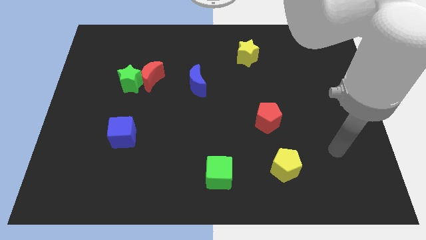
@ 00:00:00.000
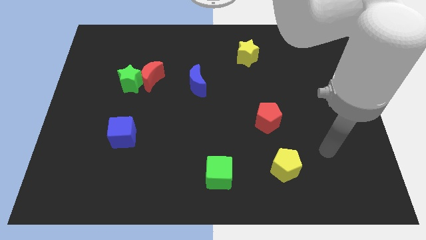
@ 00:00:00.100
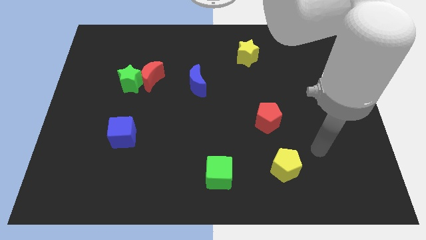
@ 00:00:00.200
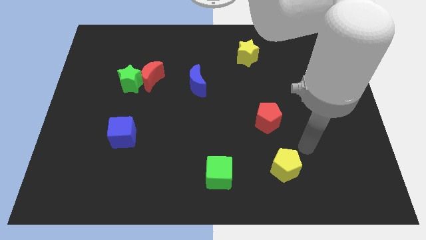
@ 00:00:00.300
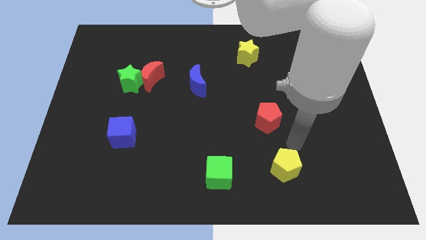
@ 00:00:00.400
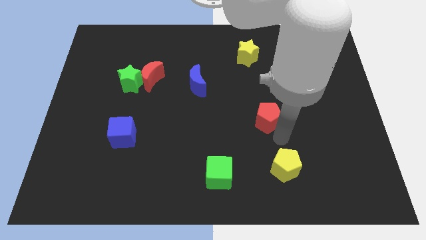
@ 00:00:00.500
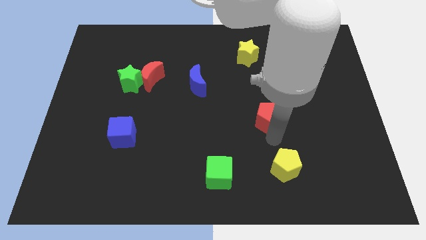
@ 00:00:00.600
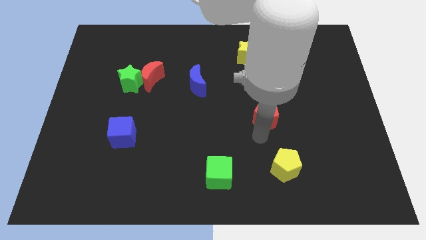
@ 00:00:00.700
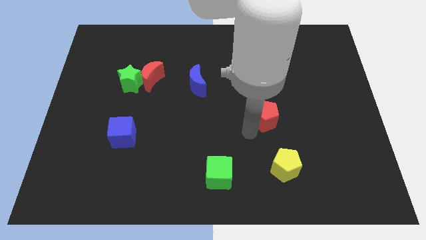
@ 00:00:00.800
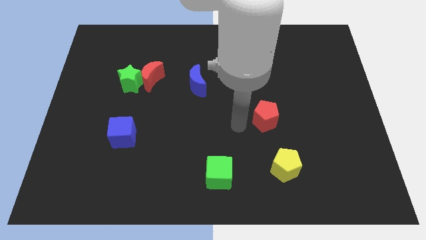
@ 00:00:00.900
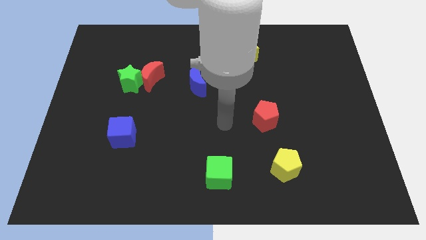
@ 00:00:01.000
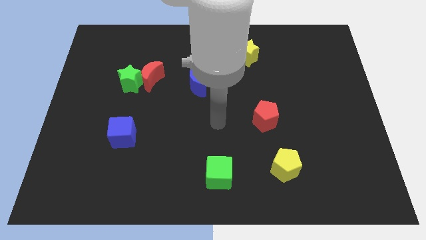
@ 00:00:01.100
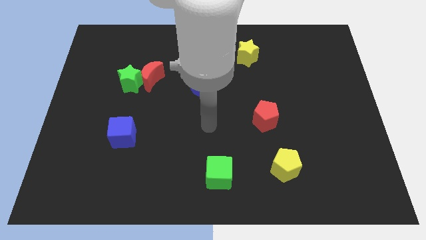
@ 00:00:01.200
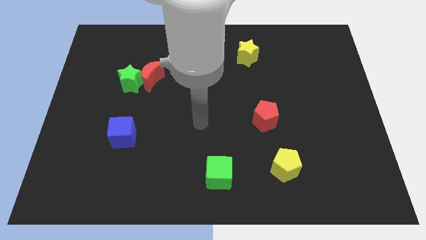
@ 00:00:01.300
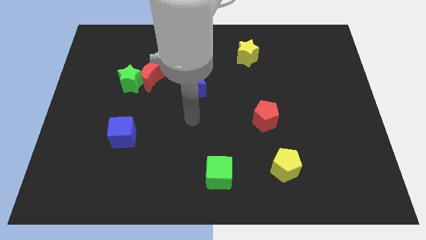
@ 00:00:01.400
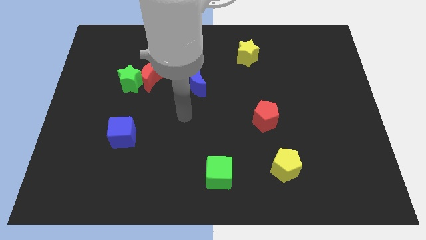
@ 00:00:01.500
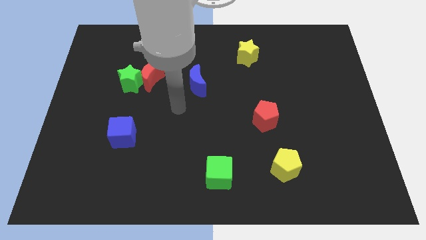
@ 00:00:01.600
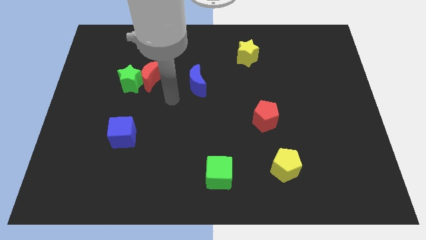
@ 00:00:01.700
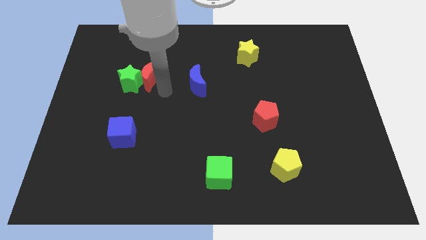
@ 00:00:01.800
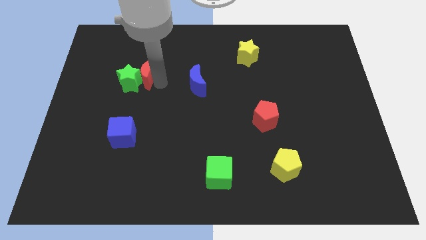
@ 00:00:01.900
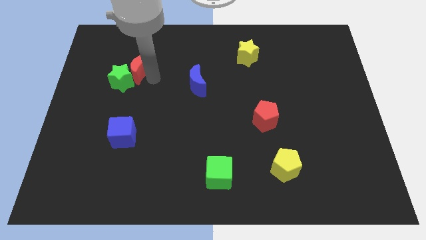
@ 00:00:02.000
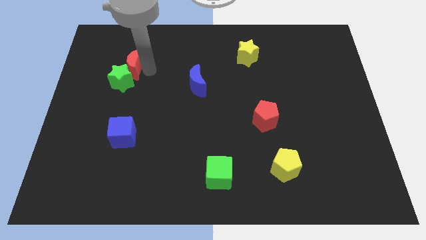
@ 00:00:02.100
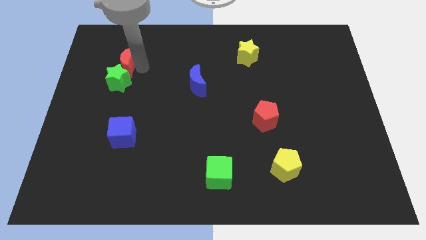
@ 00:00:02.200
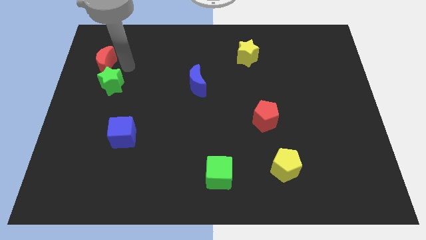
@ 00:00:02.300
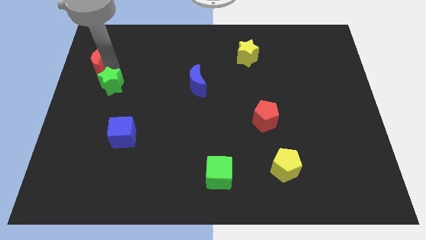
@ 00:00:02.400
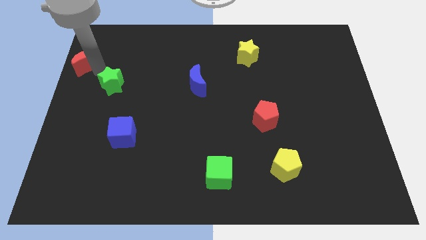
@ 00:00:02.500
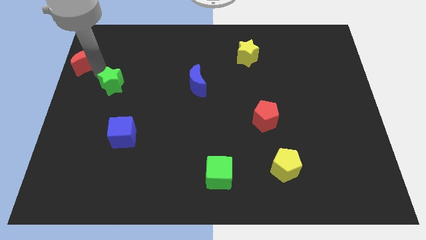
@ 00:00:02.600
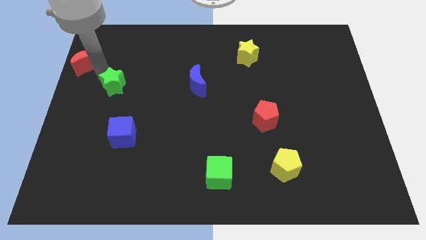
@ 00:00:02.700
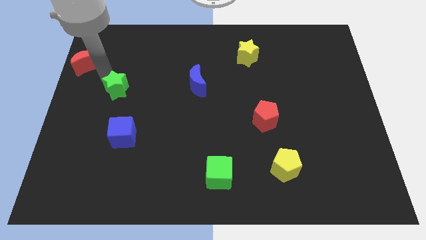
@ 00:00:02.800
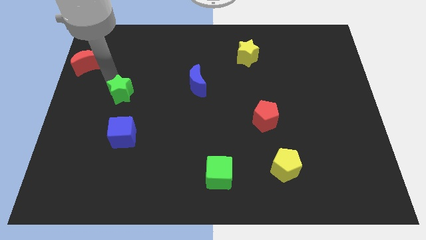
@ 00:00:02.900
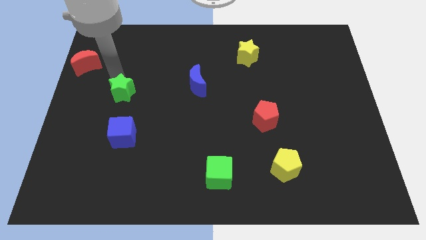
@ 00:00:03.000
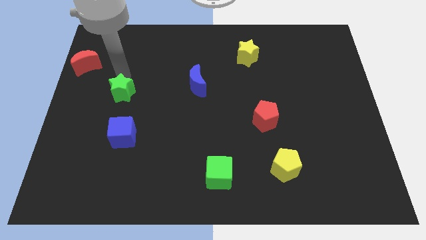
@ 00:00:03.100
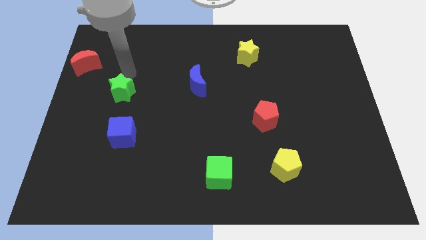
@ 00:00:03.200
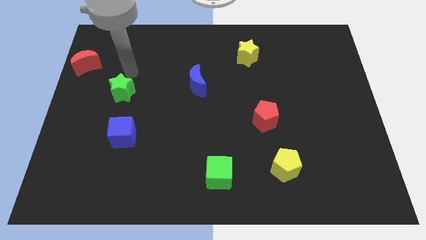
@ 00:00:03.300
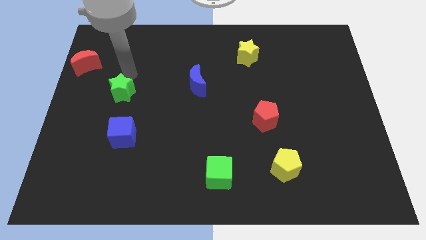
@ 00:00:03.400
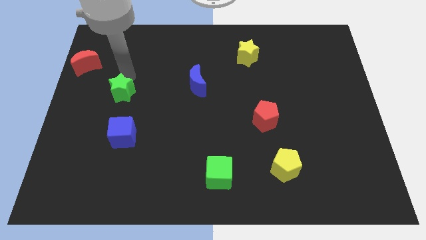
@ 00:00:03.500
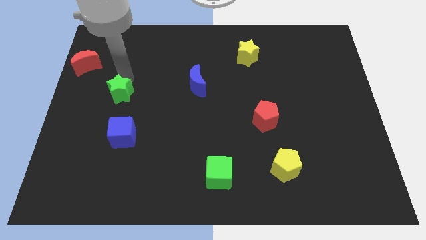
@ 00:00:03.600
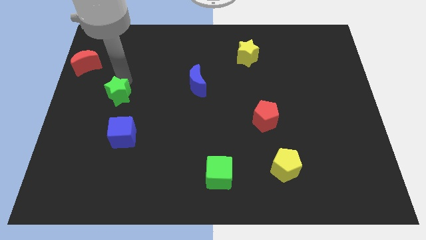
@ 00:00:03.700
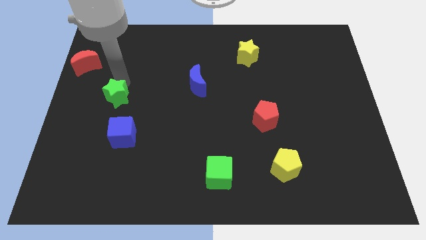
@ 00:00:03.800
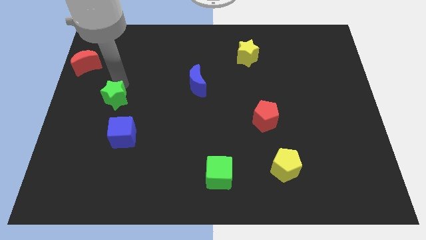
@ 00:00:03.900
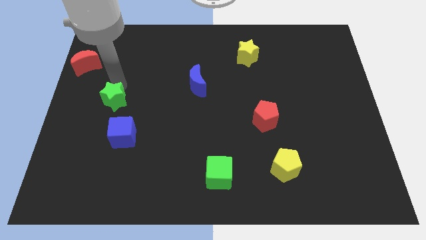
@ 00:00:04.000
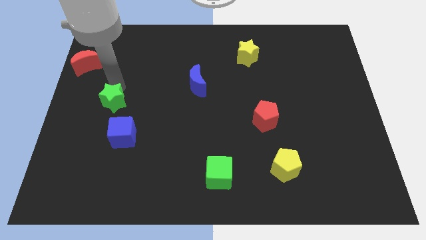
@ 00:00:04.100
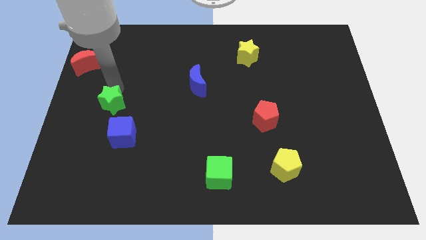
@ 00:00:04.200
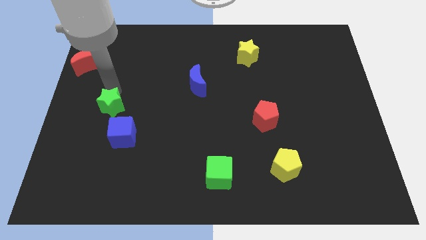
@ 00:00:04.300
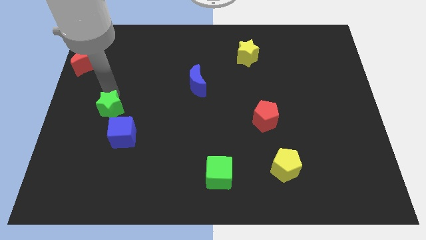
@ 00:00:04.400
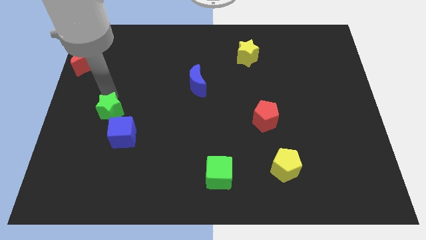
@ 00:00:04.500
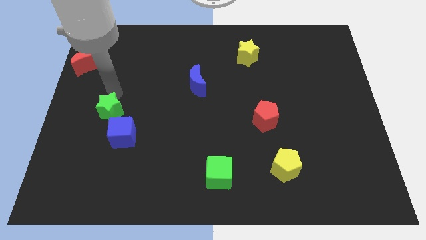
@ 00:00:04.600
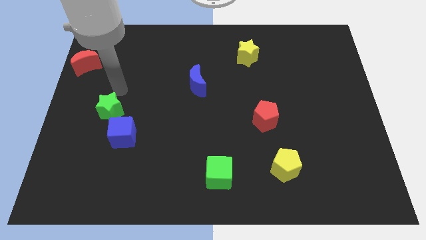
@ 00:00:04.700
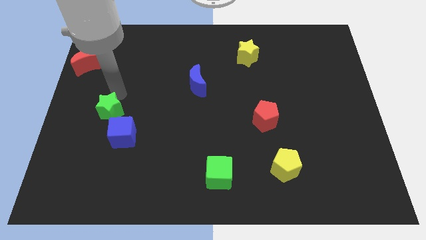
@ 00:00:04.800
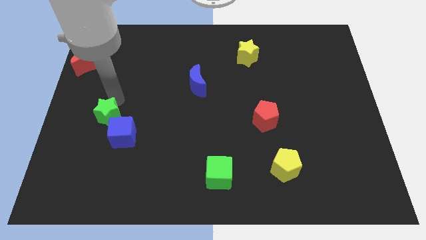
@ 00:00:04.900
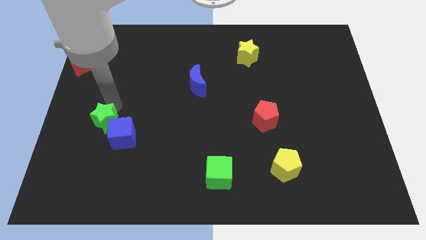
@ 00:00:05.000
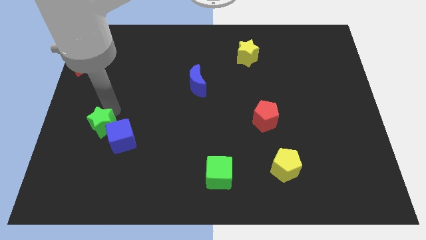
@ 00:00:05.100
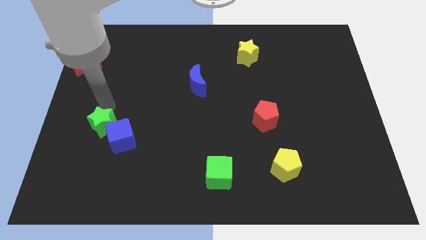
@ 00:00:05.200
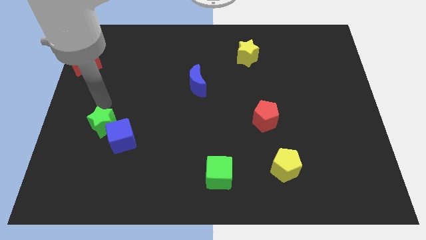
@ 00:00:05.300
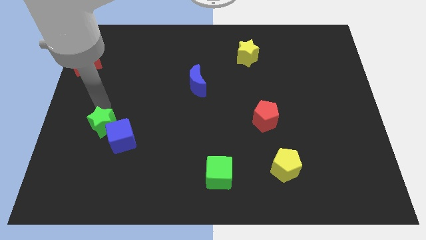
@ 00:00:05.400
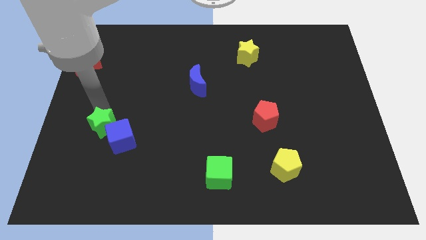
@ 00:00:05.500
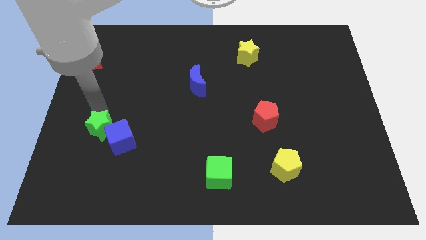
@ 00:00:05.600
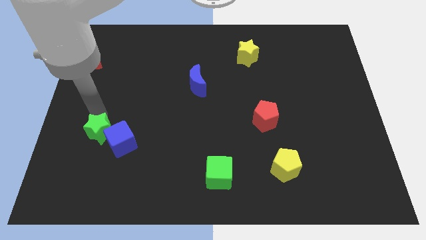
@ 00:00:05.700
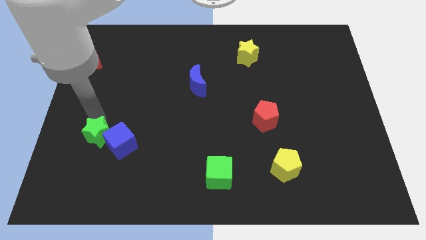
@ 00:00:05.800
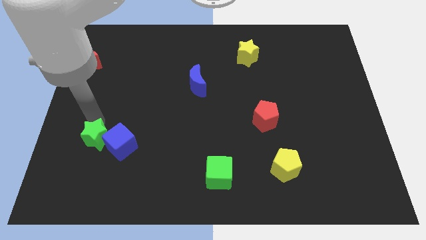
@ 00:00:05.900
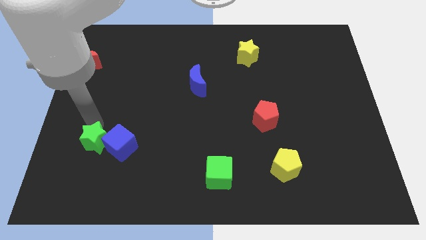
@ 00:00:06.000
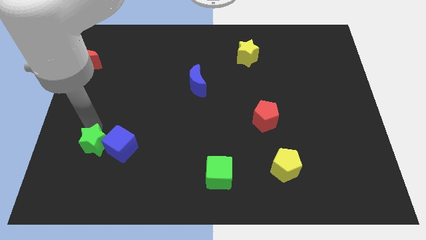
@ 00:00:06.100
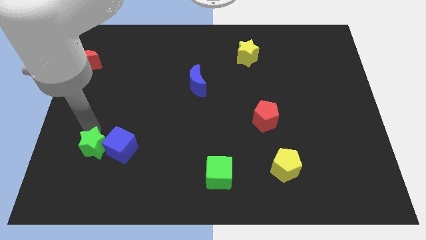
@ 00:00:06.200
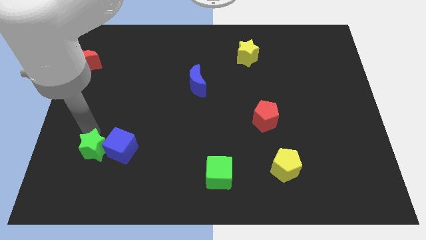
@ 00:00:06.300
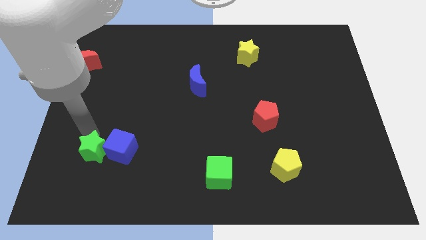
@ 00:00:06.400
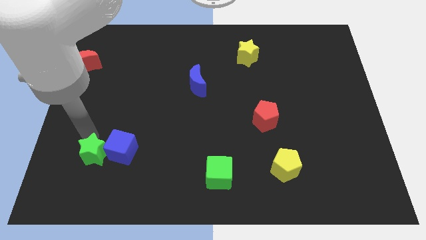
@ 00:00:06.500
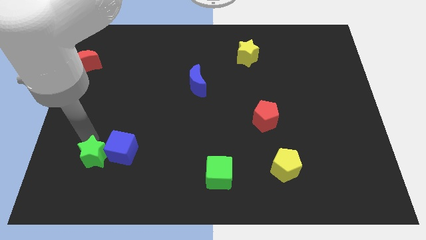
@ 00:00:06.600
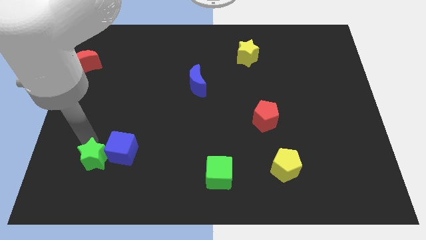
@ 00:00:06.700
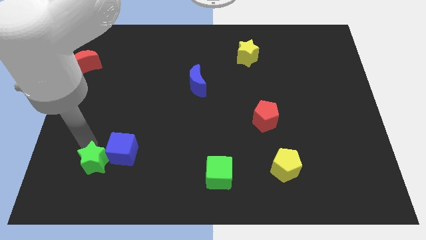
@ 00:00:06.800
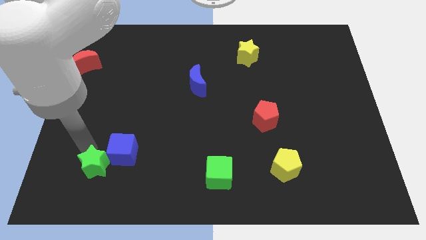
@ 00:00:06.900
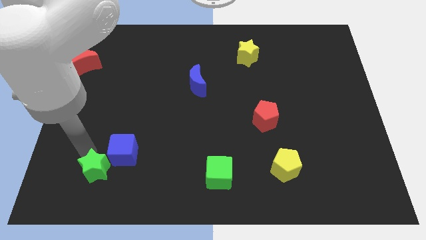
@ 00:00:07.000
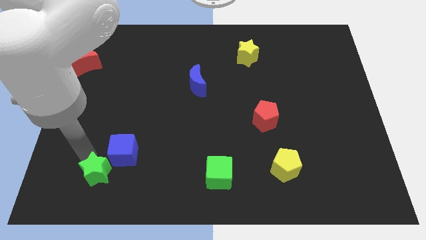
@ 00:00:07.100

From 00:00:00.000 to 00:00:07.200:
put the green star to the bottom of the blue cube

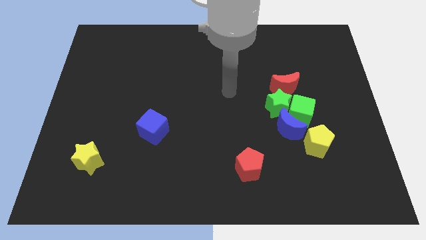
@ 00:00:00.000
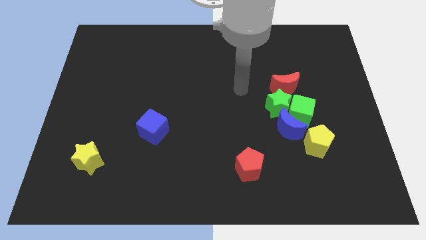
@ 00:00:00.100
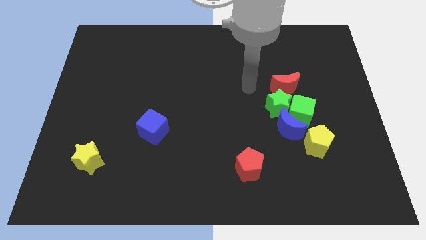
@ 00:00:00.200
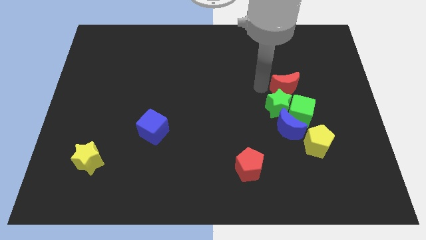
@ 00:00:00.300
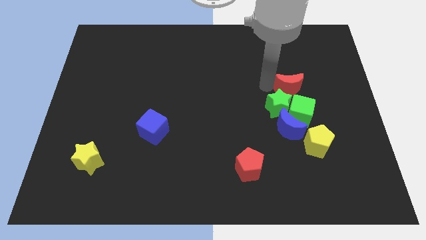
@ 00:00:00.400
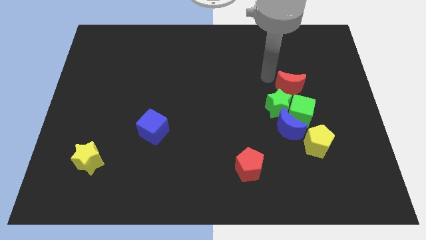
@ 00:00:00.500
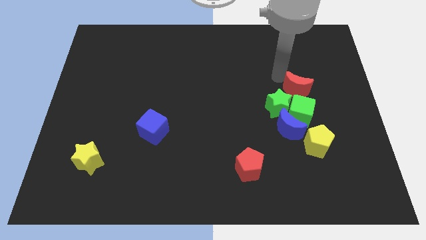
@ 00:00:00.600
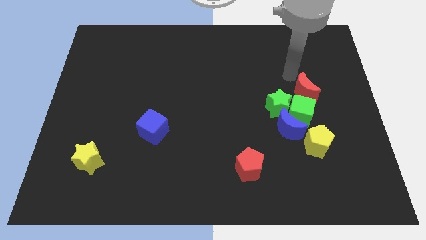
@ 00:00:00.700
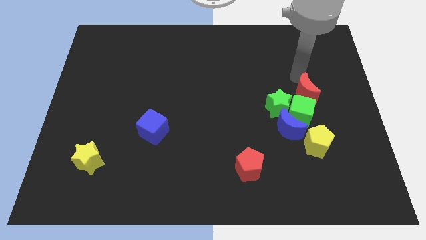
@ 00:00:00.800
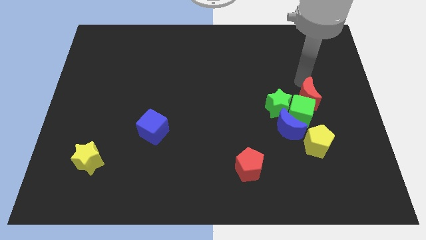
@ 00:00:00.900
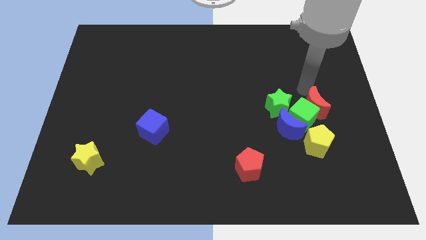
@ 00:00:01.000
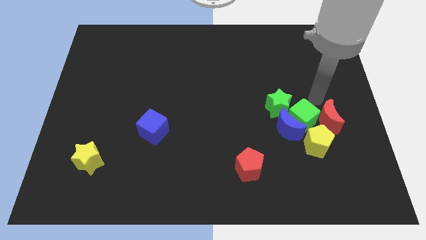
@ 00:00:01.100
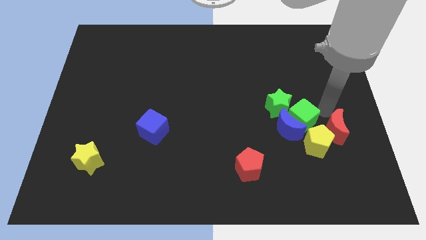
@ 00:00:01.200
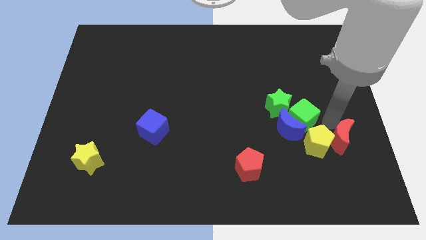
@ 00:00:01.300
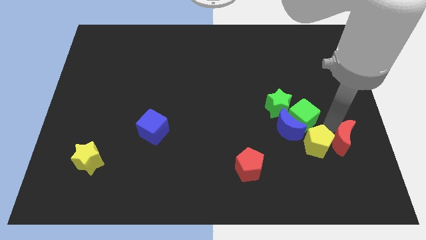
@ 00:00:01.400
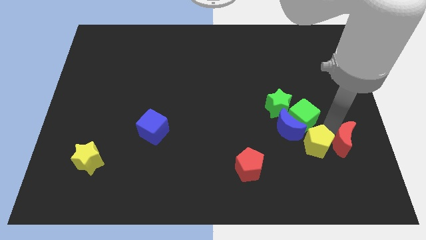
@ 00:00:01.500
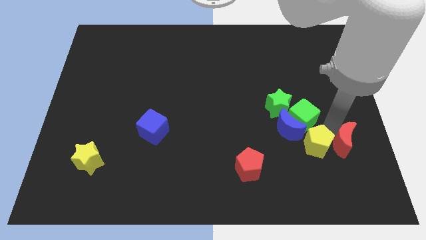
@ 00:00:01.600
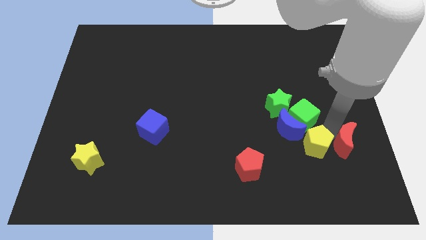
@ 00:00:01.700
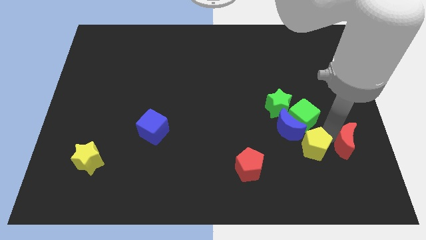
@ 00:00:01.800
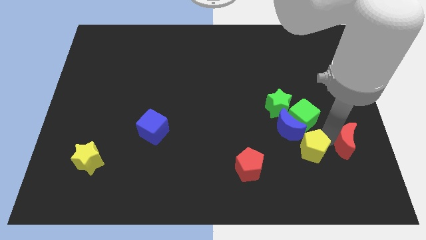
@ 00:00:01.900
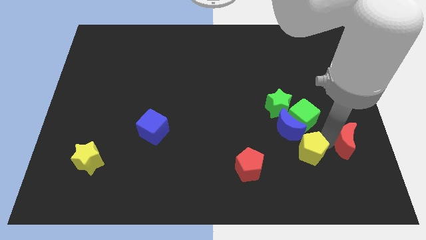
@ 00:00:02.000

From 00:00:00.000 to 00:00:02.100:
put the yellow pentagon to the right side of the red pentagon
